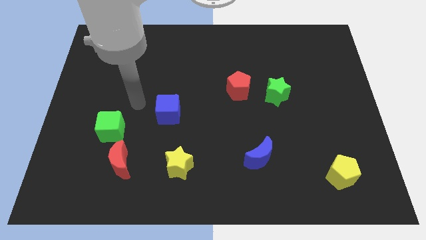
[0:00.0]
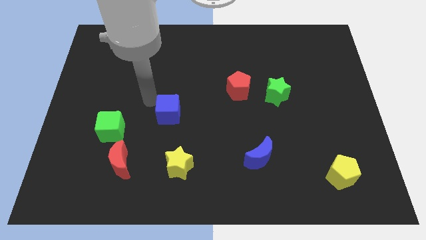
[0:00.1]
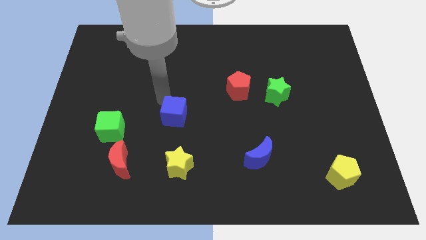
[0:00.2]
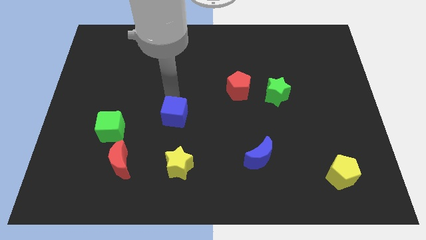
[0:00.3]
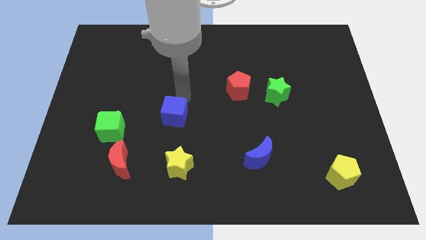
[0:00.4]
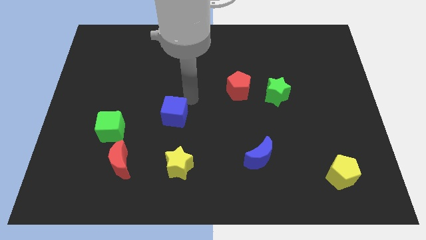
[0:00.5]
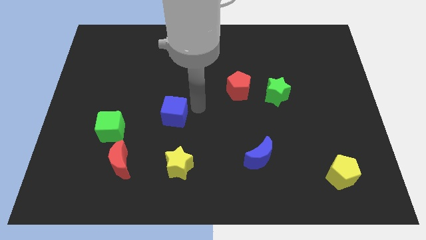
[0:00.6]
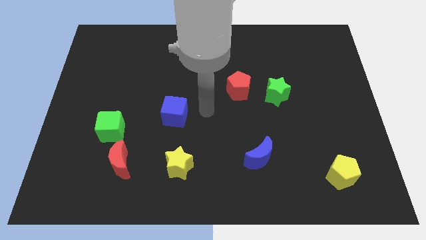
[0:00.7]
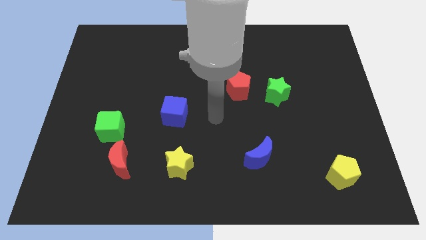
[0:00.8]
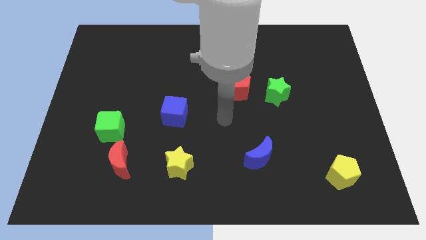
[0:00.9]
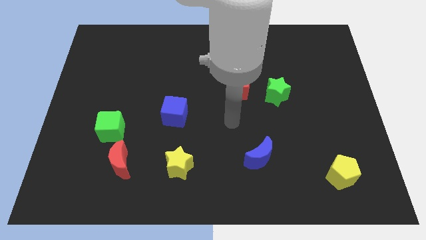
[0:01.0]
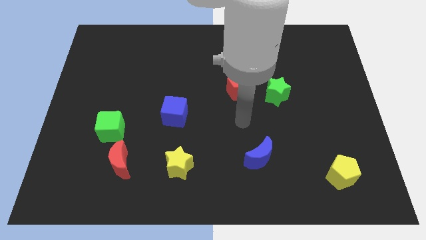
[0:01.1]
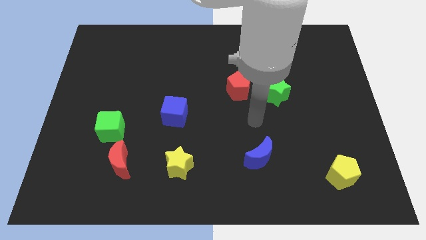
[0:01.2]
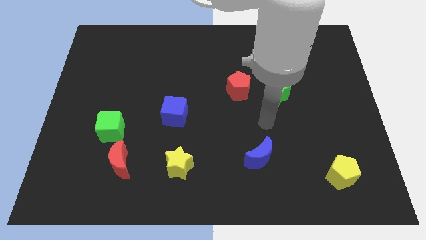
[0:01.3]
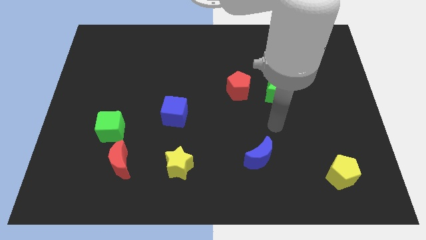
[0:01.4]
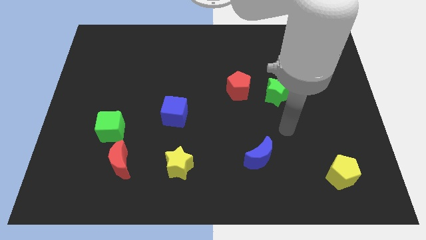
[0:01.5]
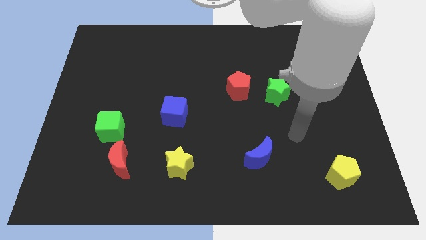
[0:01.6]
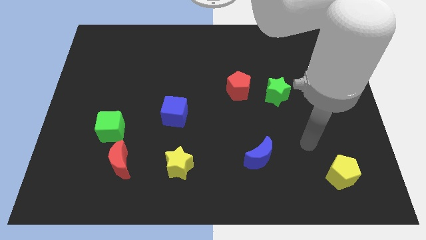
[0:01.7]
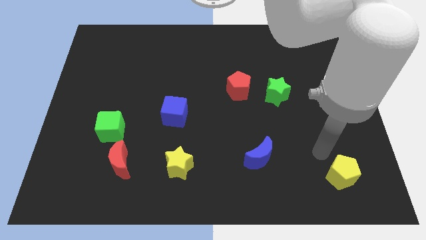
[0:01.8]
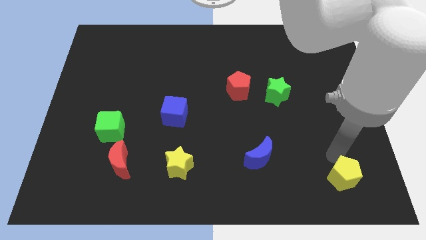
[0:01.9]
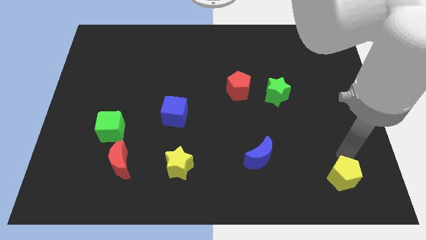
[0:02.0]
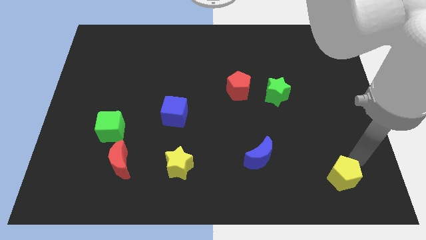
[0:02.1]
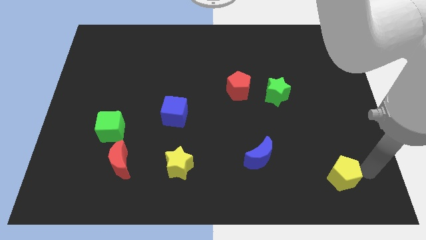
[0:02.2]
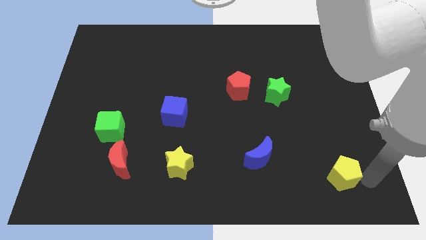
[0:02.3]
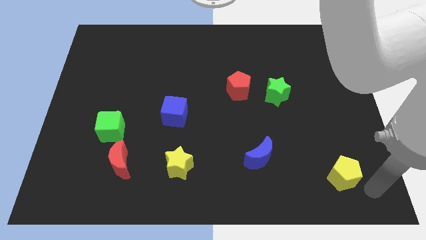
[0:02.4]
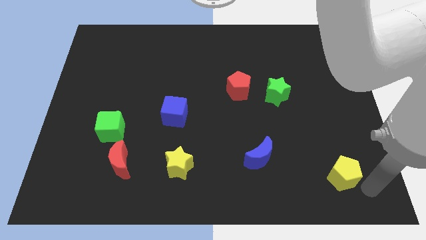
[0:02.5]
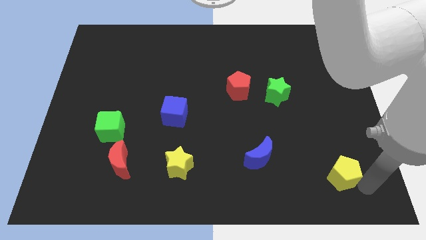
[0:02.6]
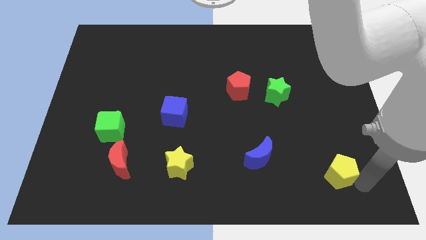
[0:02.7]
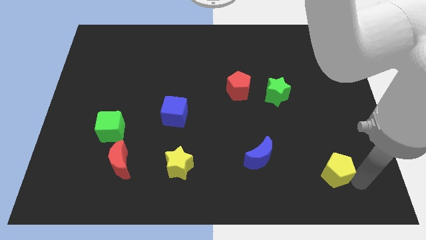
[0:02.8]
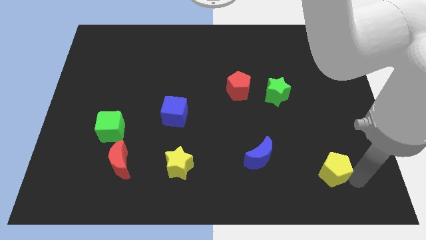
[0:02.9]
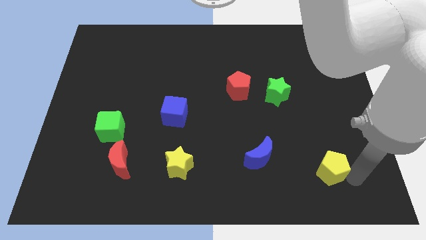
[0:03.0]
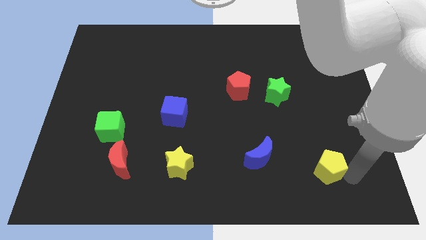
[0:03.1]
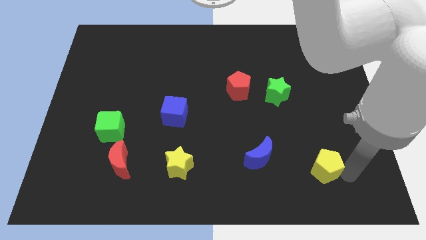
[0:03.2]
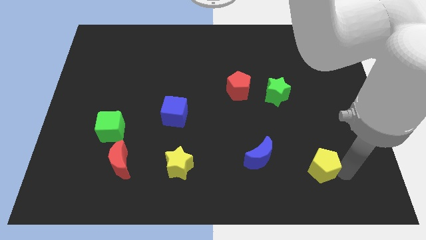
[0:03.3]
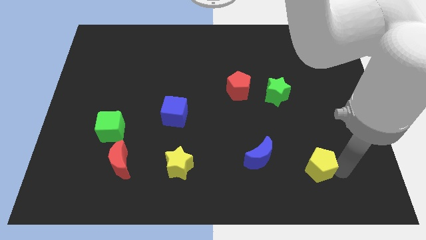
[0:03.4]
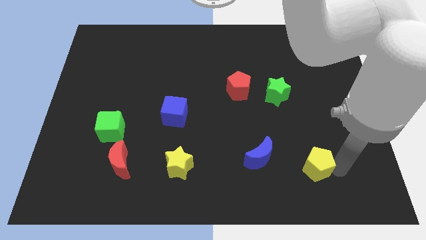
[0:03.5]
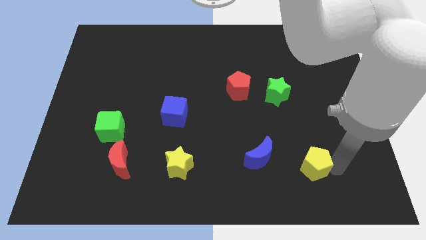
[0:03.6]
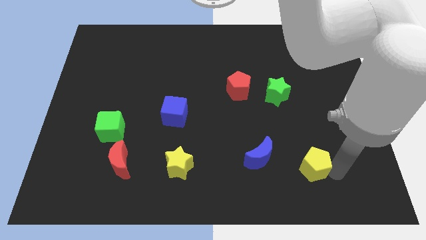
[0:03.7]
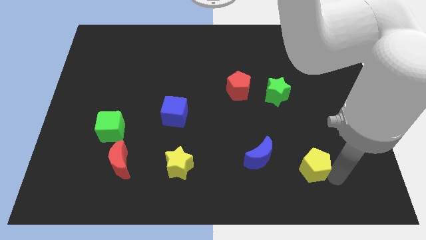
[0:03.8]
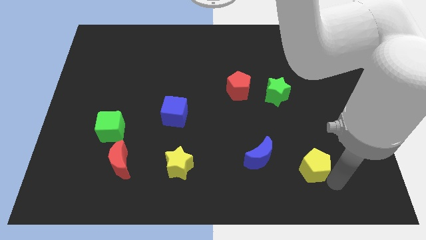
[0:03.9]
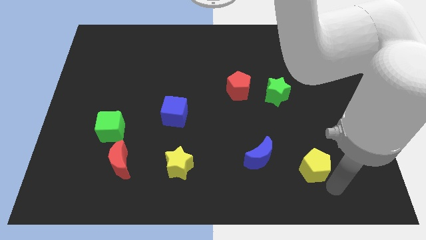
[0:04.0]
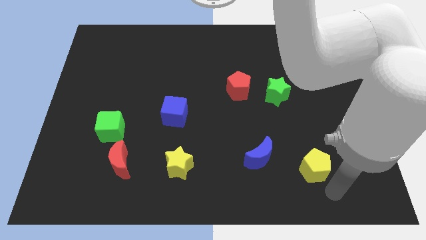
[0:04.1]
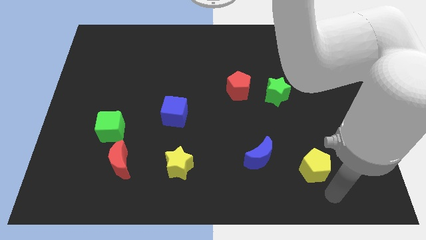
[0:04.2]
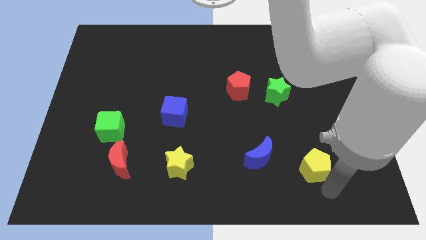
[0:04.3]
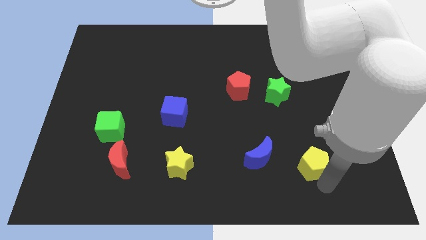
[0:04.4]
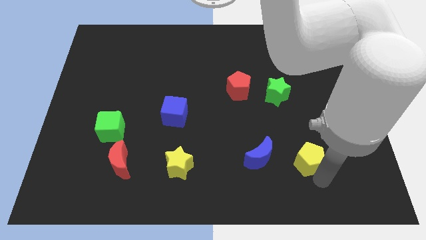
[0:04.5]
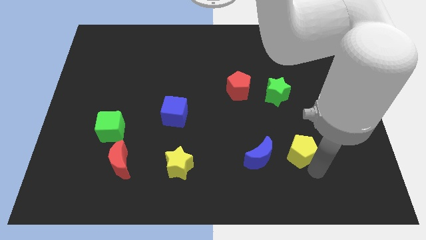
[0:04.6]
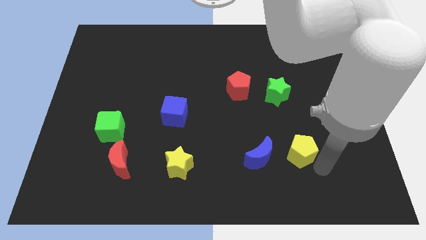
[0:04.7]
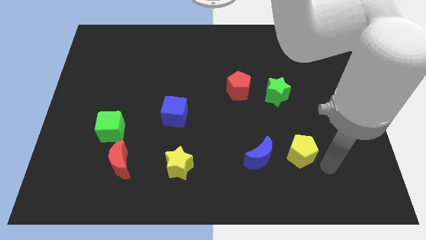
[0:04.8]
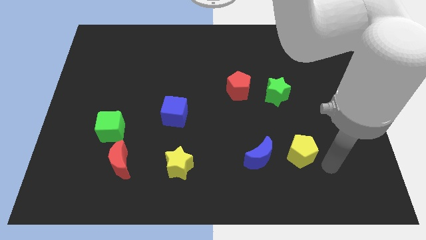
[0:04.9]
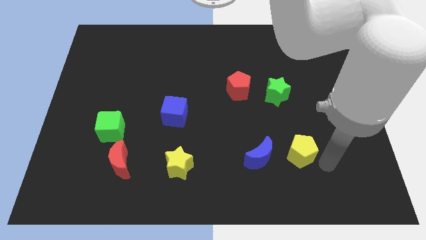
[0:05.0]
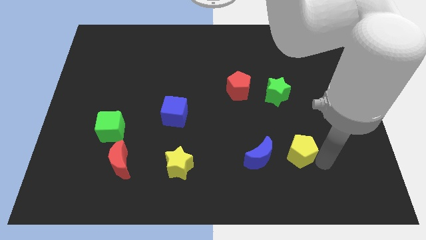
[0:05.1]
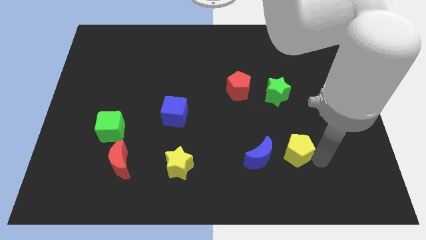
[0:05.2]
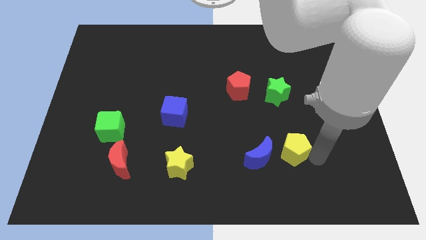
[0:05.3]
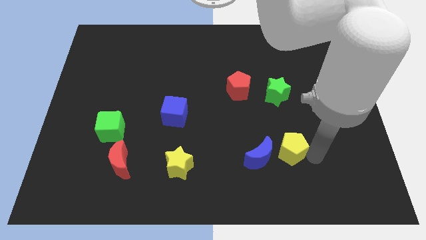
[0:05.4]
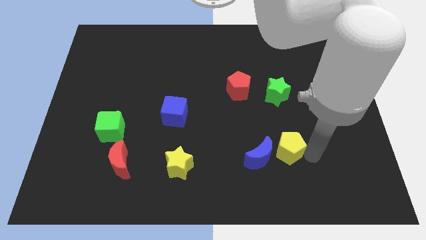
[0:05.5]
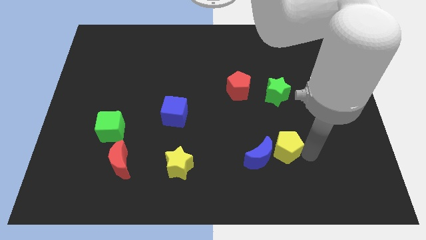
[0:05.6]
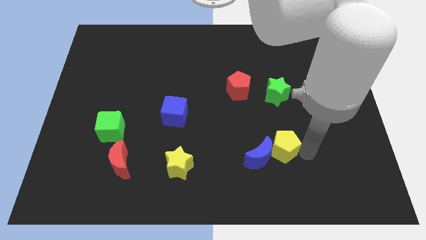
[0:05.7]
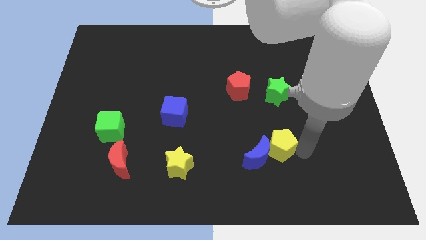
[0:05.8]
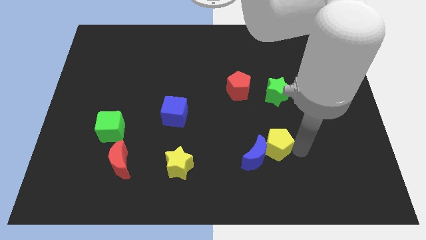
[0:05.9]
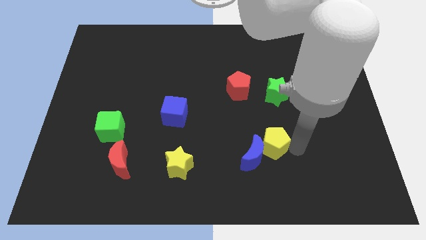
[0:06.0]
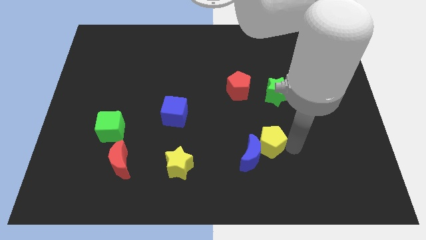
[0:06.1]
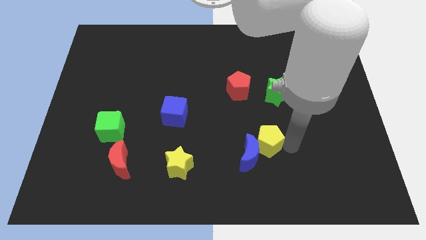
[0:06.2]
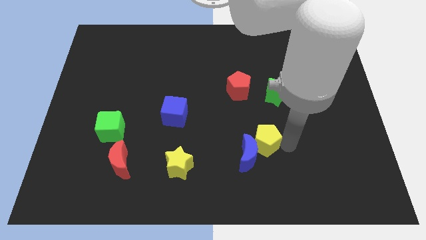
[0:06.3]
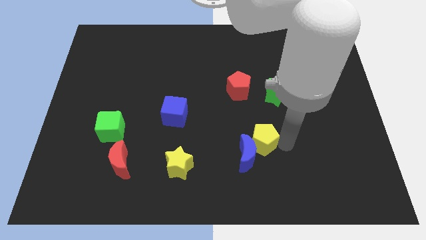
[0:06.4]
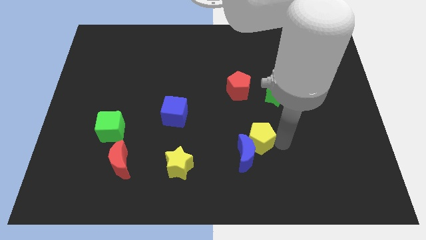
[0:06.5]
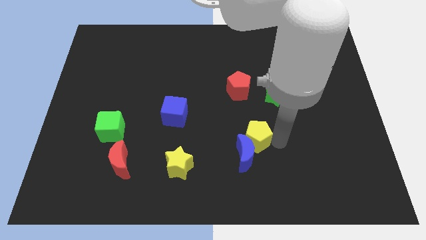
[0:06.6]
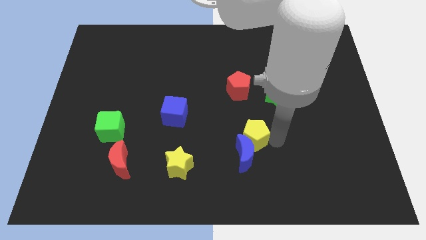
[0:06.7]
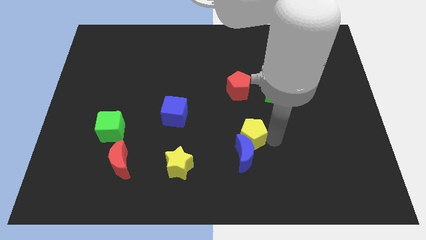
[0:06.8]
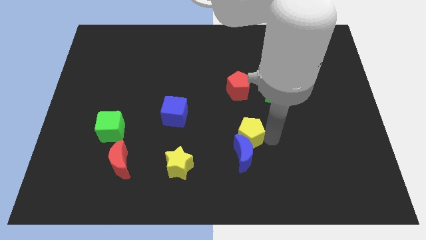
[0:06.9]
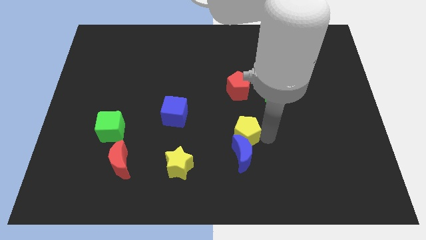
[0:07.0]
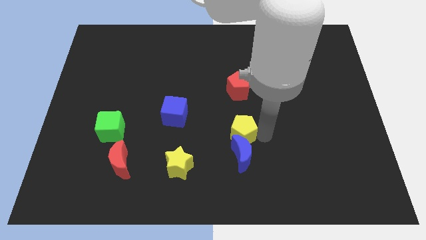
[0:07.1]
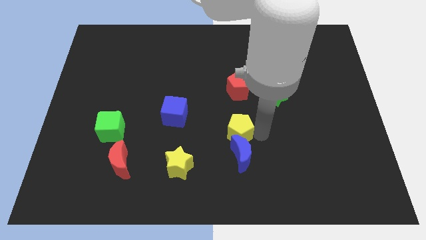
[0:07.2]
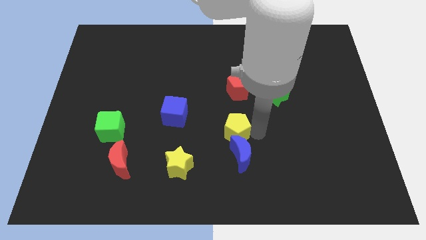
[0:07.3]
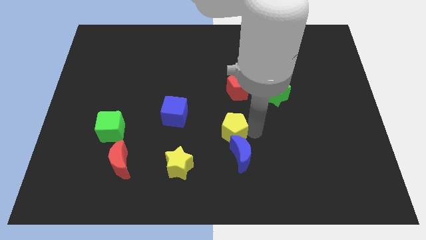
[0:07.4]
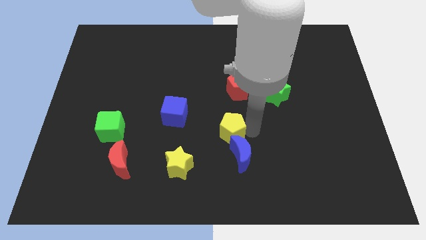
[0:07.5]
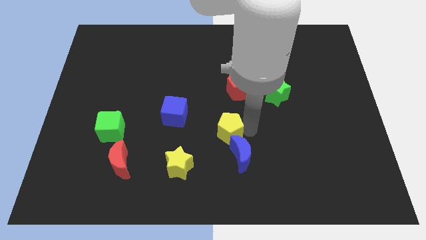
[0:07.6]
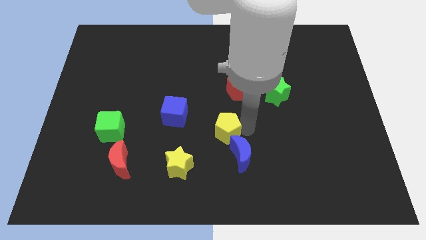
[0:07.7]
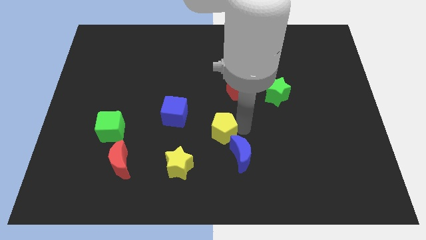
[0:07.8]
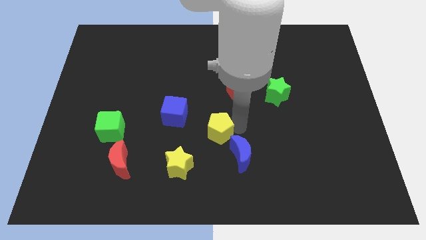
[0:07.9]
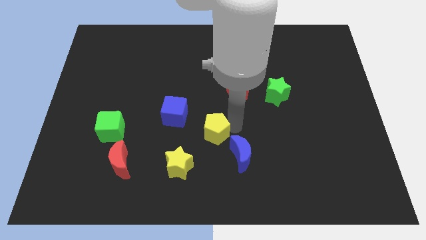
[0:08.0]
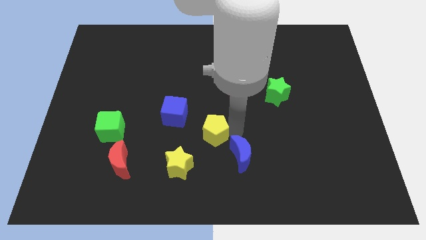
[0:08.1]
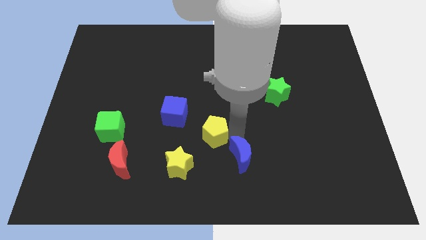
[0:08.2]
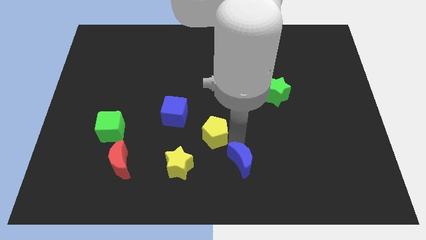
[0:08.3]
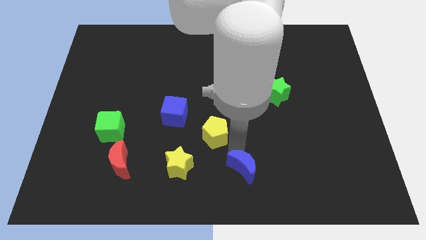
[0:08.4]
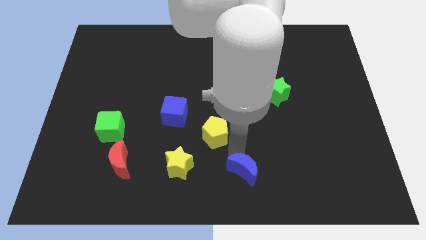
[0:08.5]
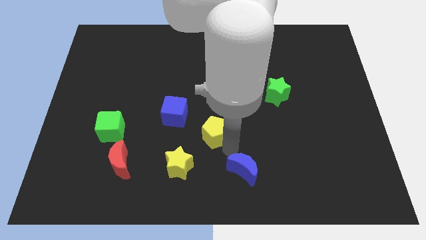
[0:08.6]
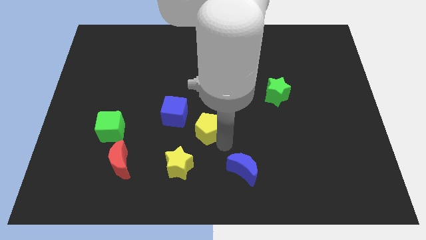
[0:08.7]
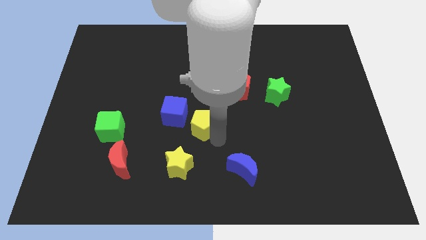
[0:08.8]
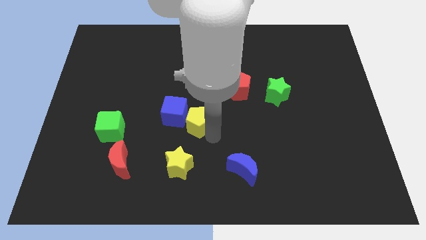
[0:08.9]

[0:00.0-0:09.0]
move the yellow pentagon towards the blue cube
